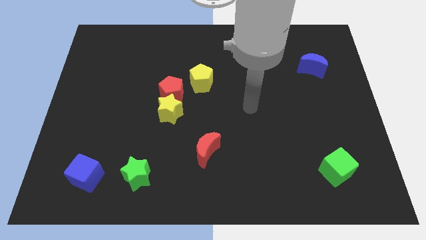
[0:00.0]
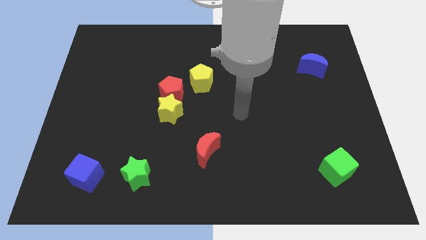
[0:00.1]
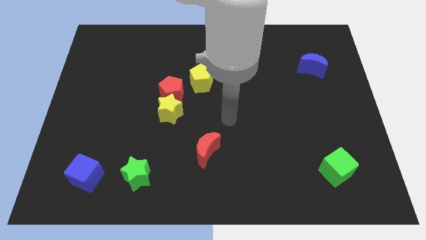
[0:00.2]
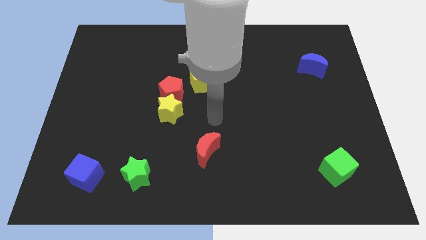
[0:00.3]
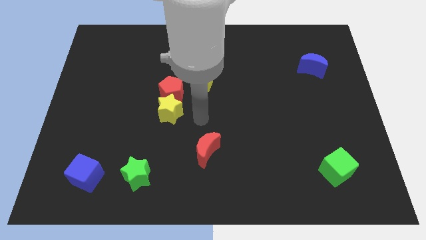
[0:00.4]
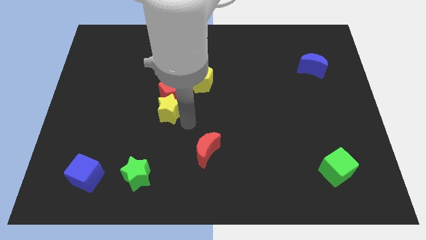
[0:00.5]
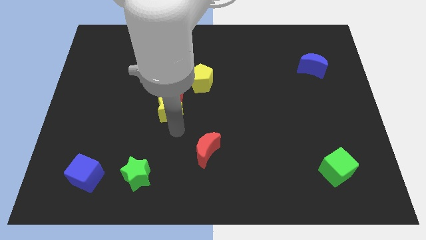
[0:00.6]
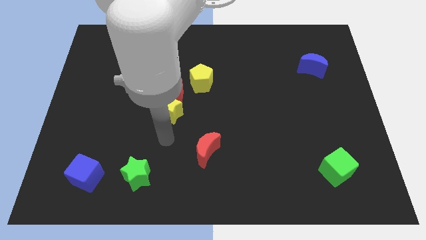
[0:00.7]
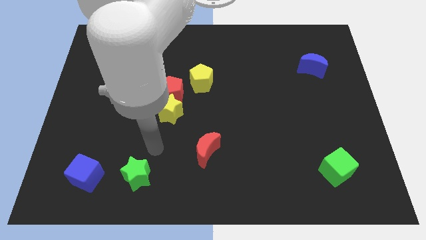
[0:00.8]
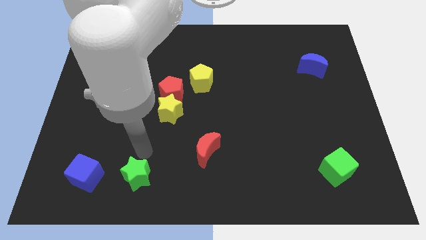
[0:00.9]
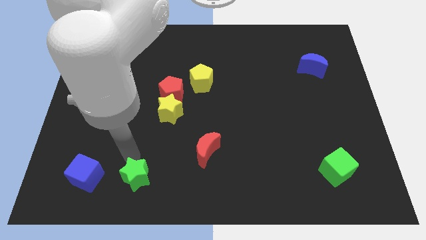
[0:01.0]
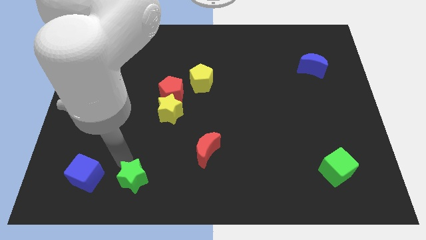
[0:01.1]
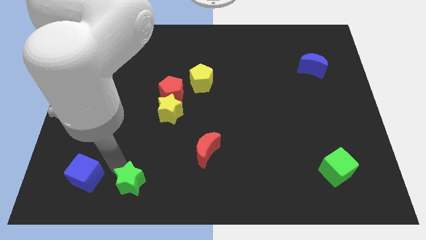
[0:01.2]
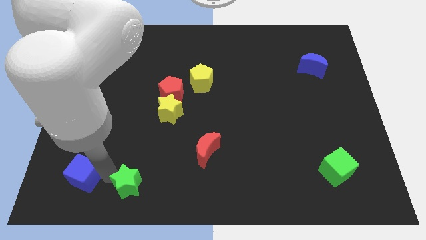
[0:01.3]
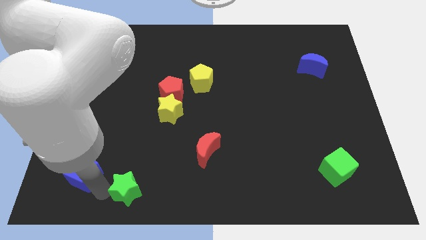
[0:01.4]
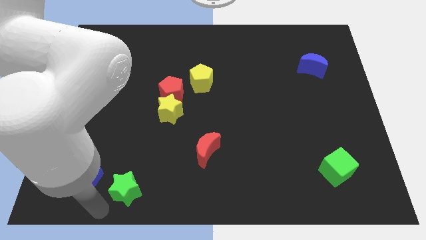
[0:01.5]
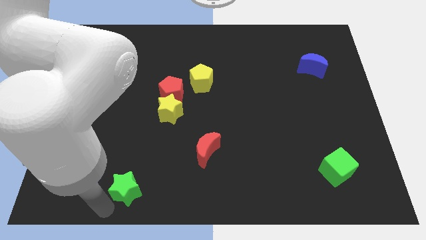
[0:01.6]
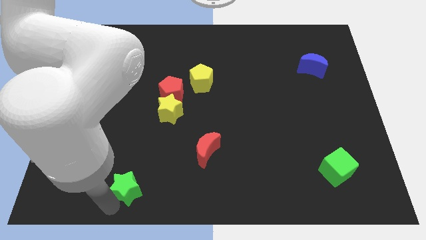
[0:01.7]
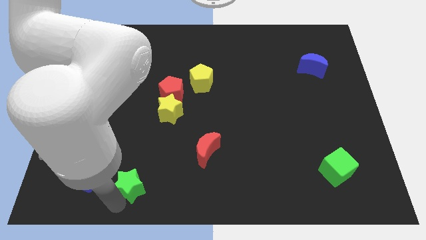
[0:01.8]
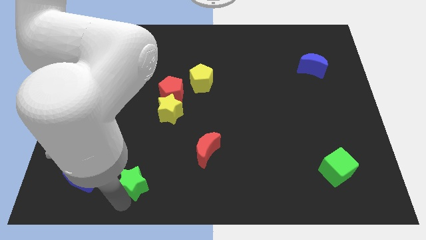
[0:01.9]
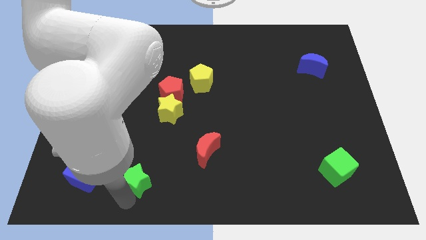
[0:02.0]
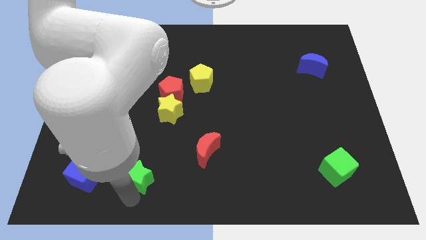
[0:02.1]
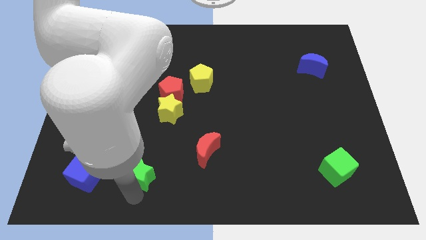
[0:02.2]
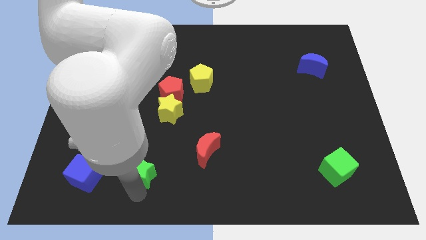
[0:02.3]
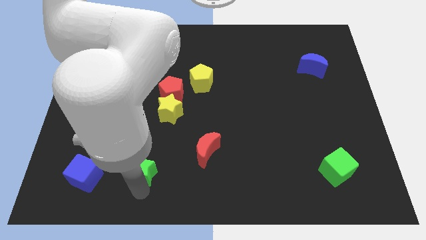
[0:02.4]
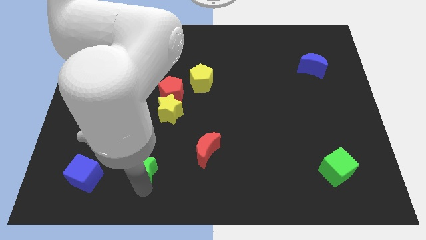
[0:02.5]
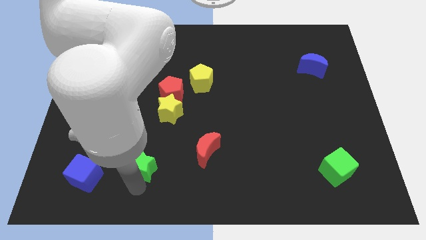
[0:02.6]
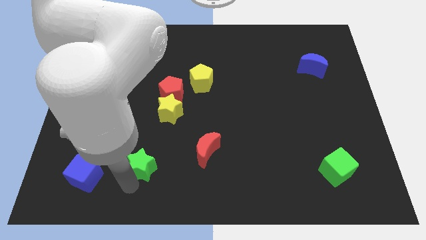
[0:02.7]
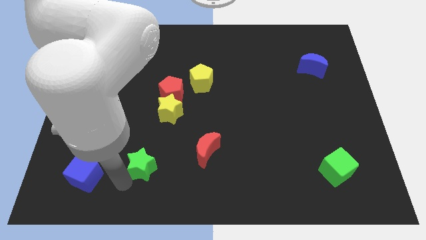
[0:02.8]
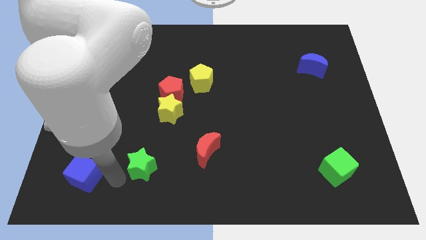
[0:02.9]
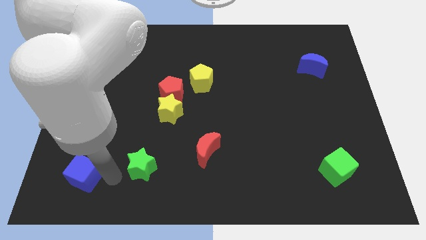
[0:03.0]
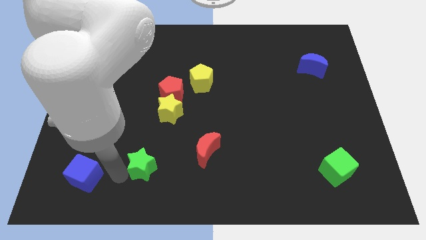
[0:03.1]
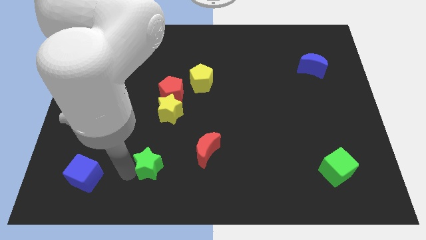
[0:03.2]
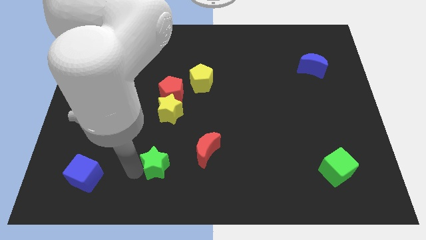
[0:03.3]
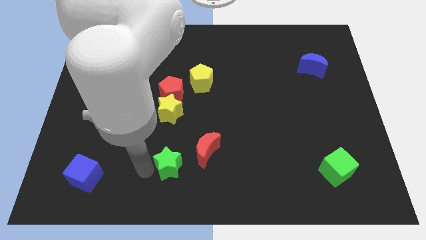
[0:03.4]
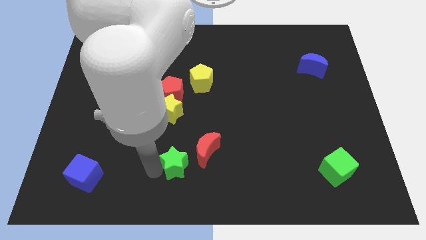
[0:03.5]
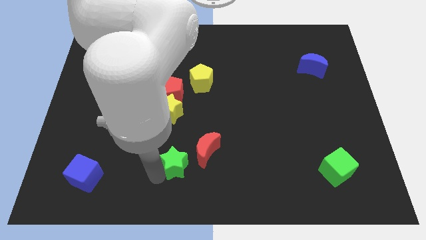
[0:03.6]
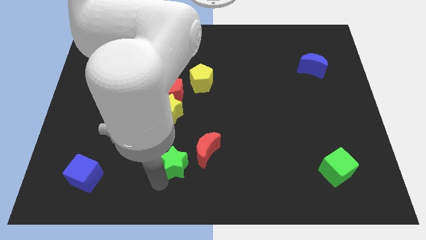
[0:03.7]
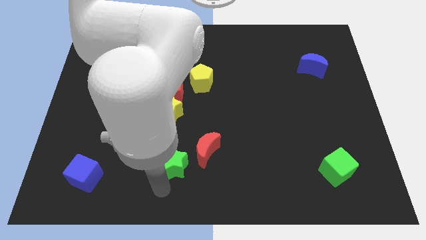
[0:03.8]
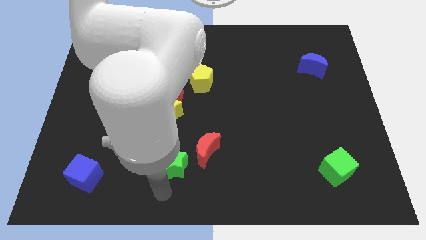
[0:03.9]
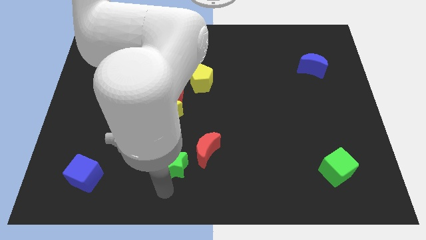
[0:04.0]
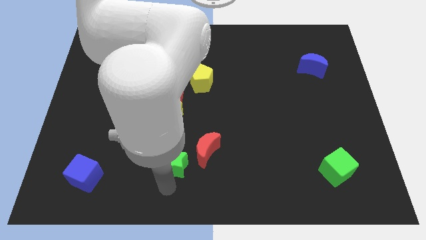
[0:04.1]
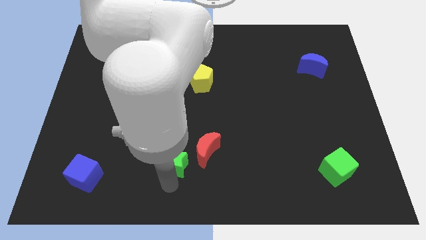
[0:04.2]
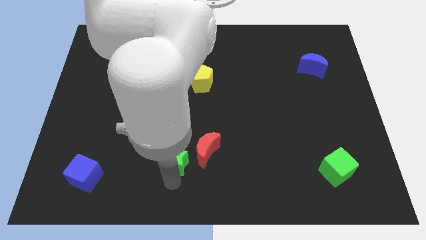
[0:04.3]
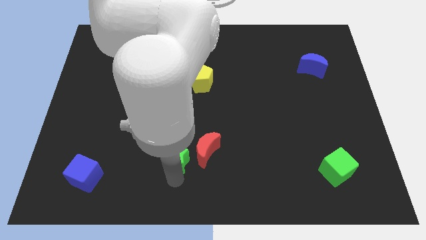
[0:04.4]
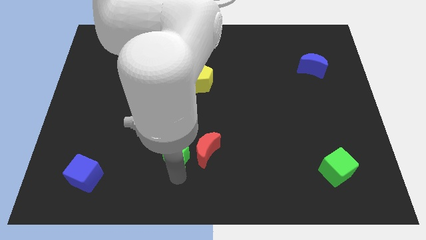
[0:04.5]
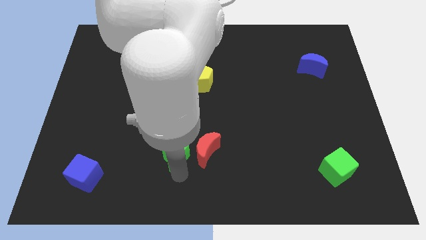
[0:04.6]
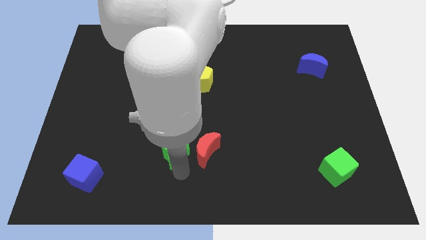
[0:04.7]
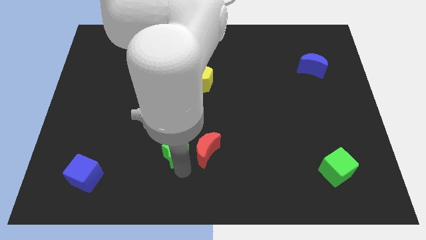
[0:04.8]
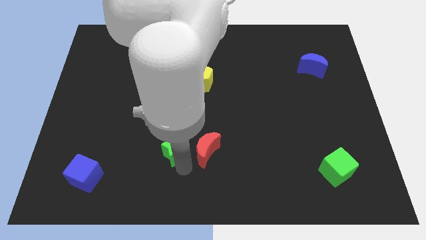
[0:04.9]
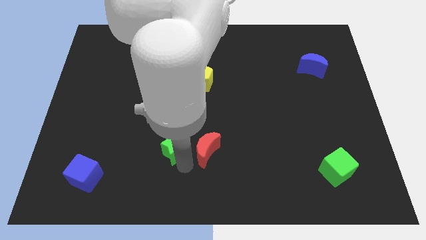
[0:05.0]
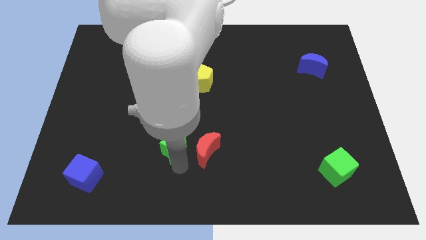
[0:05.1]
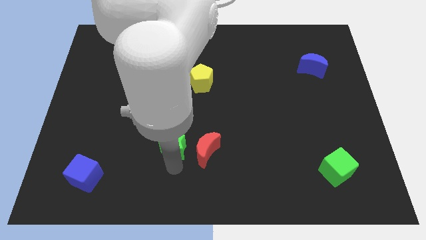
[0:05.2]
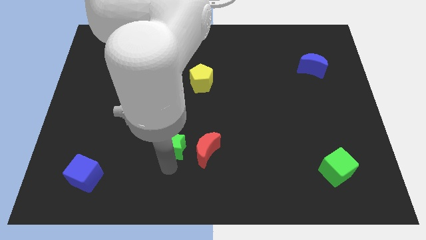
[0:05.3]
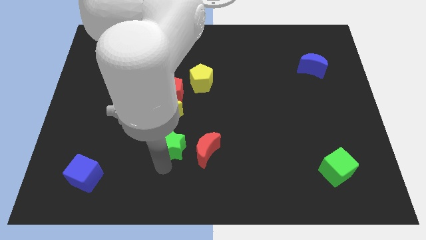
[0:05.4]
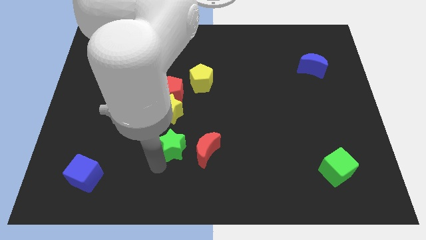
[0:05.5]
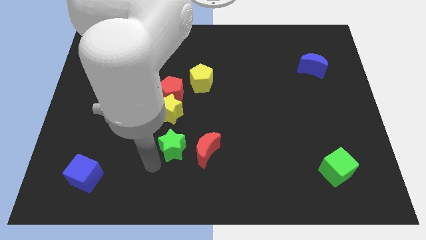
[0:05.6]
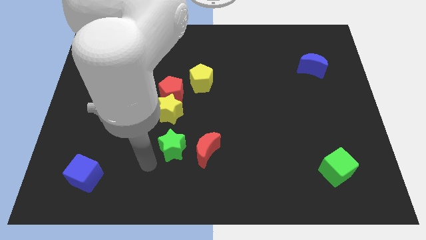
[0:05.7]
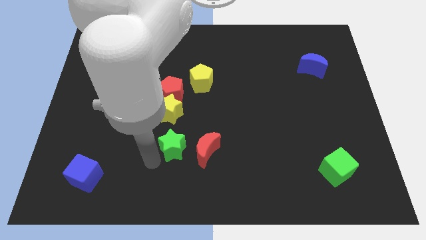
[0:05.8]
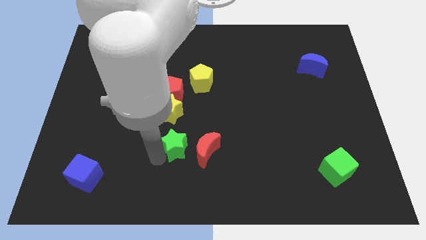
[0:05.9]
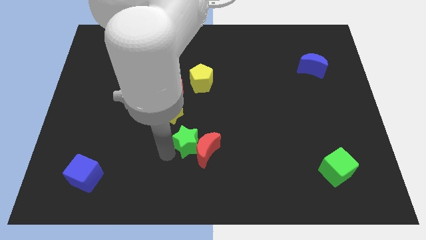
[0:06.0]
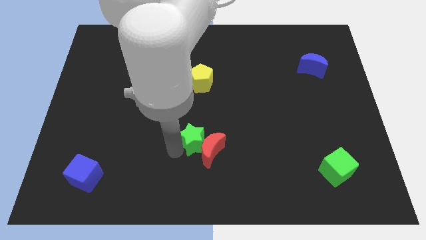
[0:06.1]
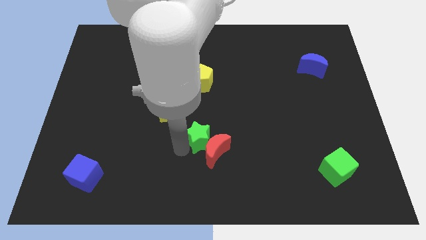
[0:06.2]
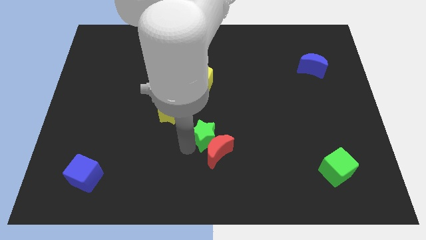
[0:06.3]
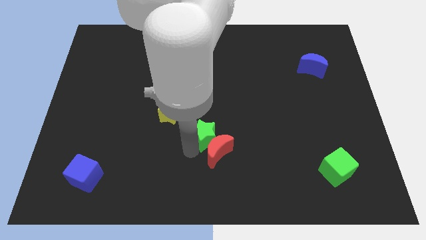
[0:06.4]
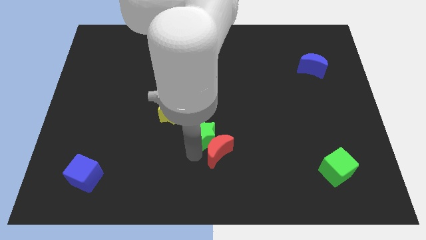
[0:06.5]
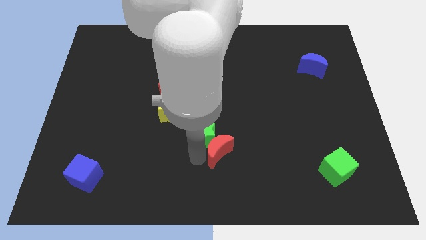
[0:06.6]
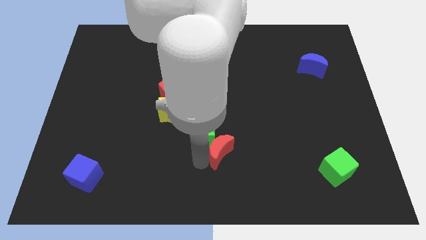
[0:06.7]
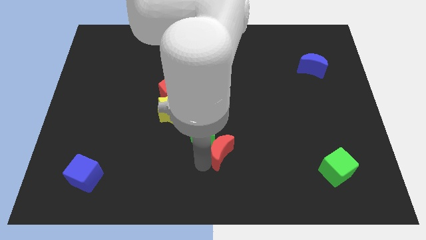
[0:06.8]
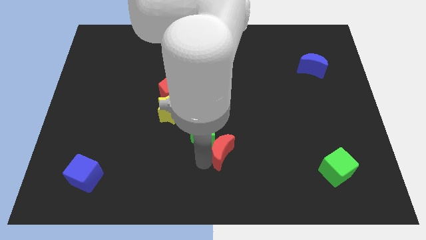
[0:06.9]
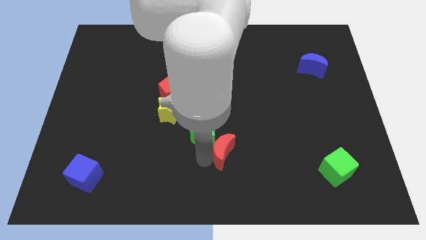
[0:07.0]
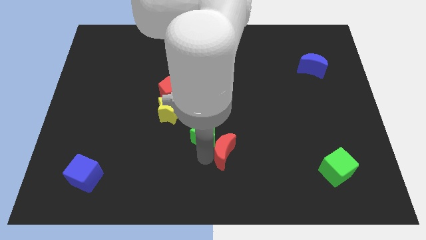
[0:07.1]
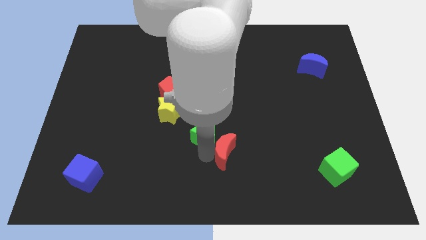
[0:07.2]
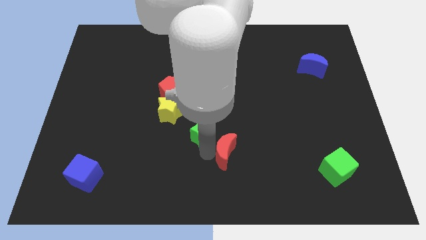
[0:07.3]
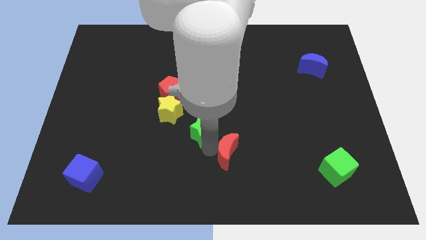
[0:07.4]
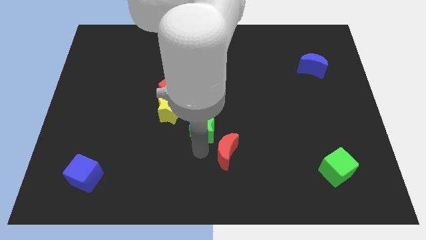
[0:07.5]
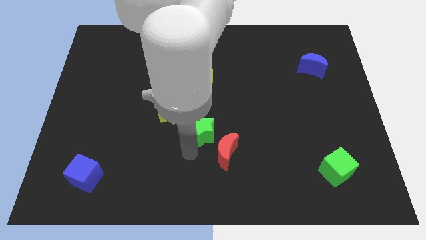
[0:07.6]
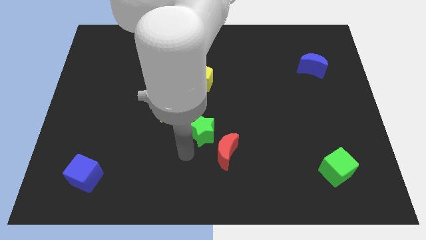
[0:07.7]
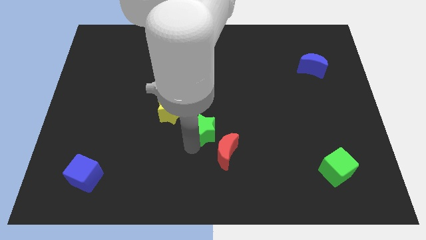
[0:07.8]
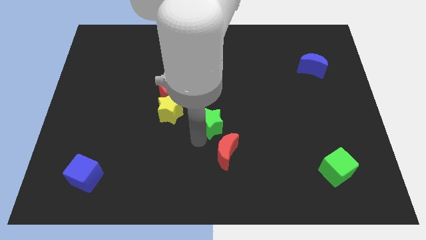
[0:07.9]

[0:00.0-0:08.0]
slide the green star up and to the right diagonally
